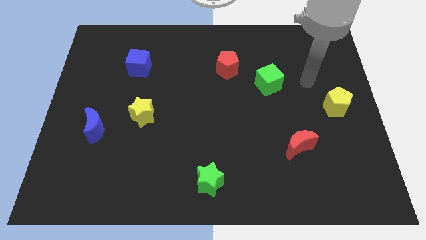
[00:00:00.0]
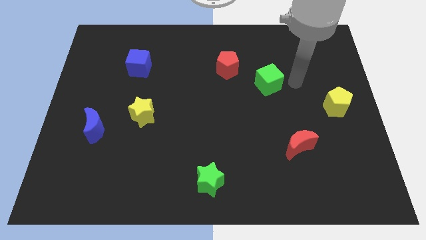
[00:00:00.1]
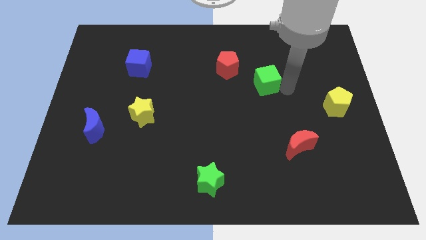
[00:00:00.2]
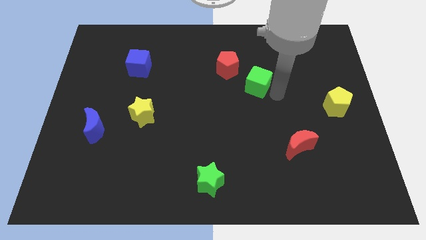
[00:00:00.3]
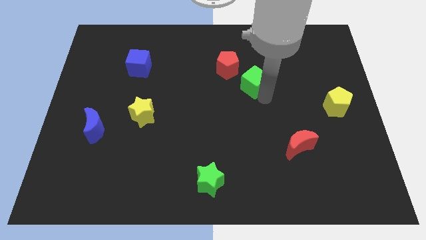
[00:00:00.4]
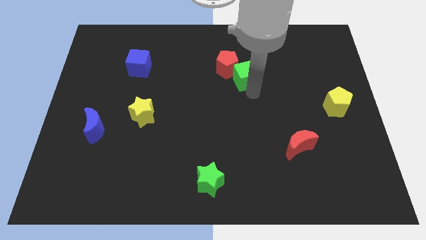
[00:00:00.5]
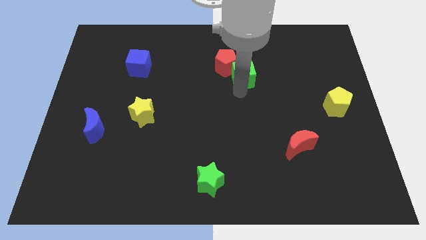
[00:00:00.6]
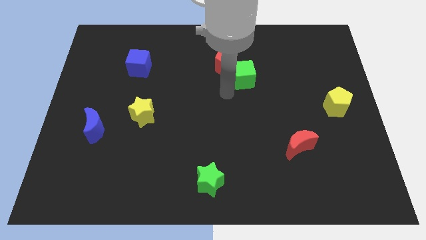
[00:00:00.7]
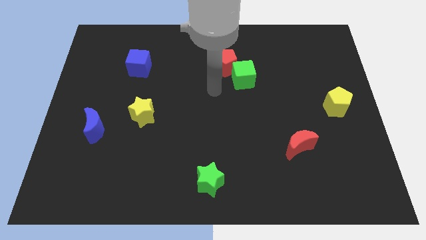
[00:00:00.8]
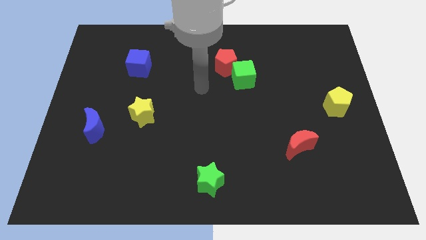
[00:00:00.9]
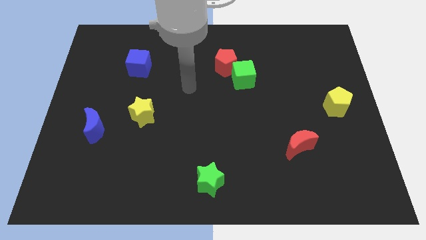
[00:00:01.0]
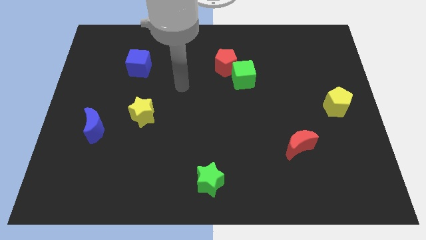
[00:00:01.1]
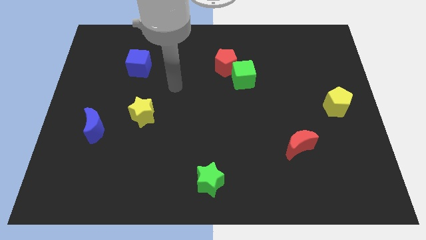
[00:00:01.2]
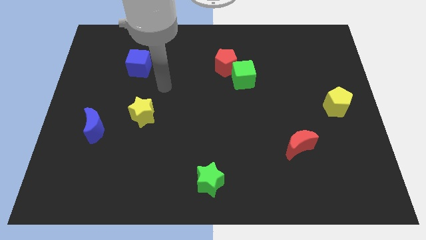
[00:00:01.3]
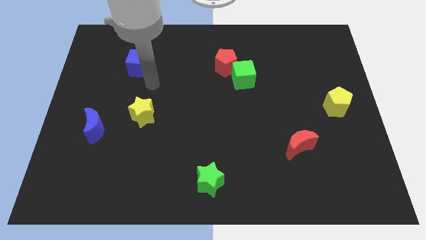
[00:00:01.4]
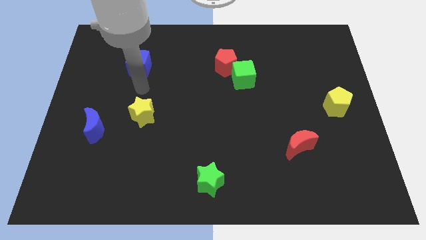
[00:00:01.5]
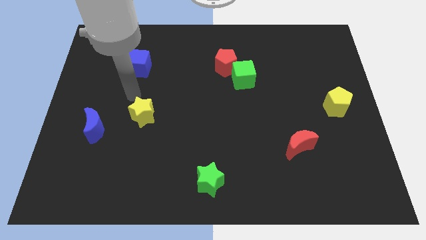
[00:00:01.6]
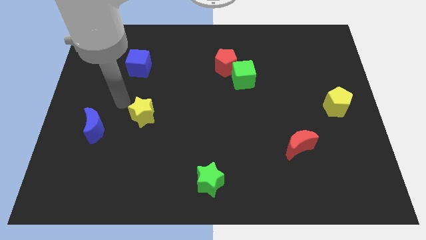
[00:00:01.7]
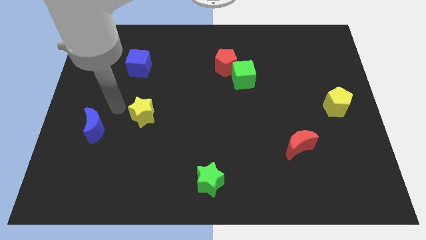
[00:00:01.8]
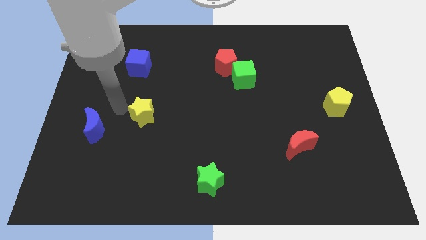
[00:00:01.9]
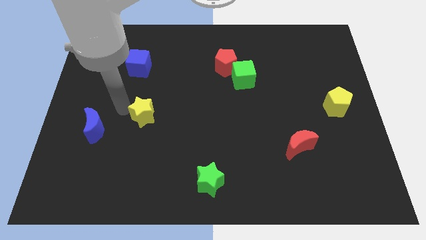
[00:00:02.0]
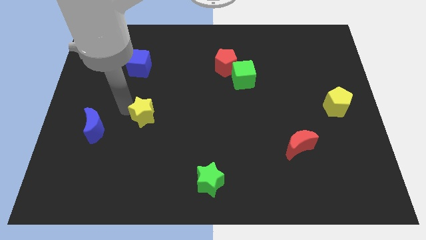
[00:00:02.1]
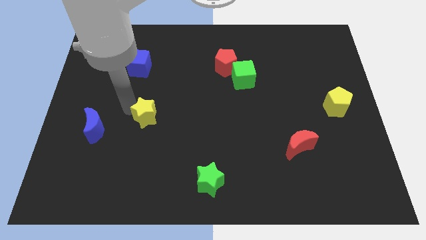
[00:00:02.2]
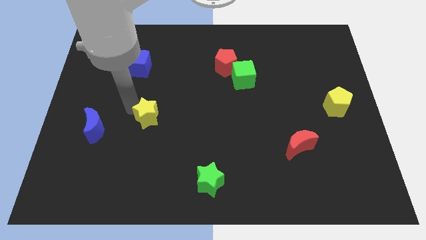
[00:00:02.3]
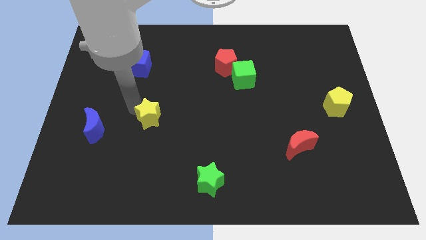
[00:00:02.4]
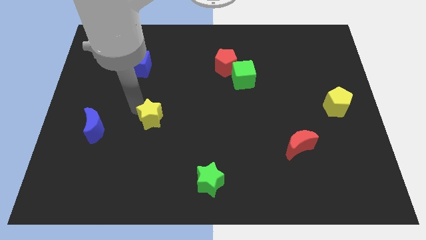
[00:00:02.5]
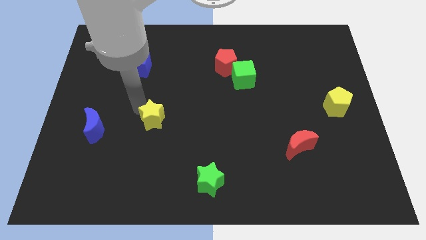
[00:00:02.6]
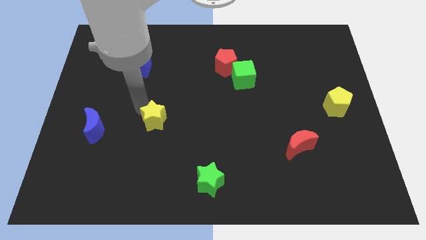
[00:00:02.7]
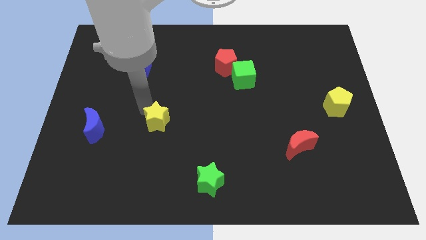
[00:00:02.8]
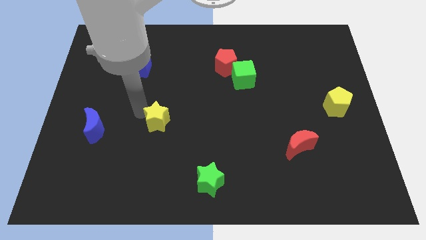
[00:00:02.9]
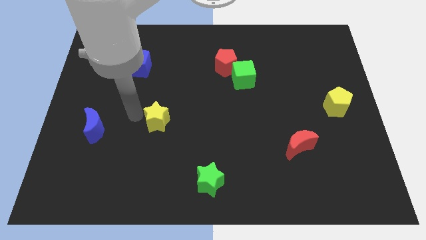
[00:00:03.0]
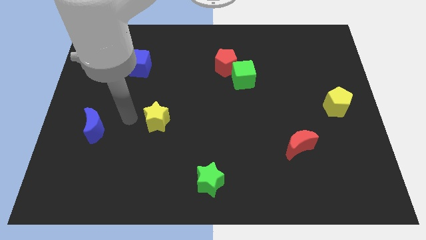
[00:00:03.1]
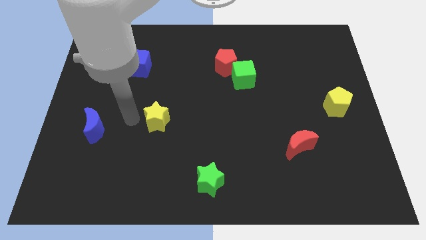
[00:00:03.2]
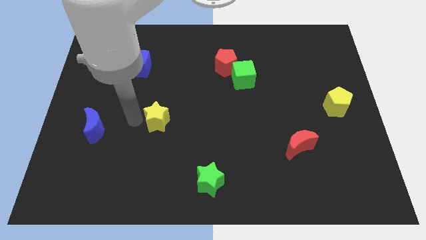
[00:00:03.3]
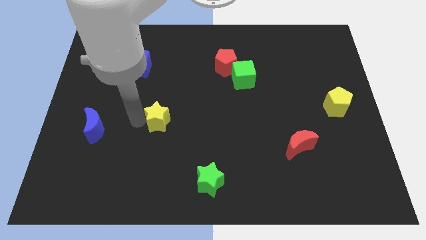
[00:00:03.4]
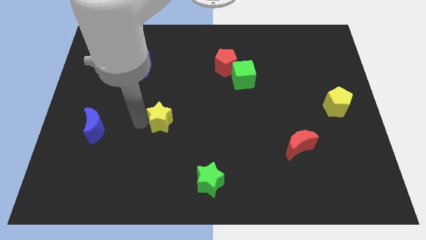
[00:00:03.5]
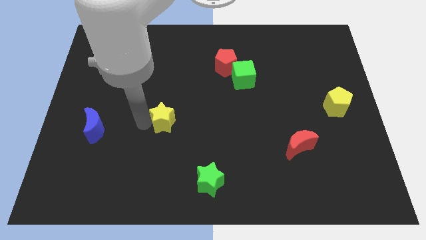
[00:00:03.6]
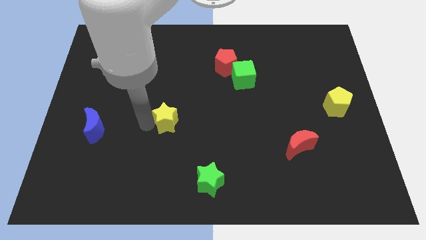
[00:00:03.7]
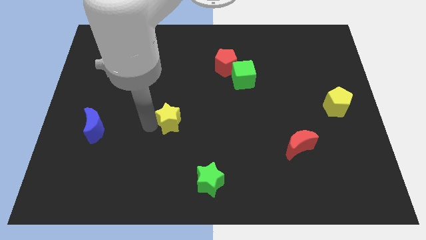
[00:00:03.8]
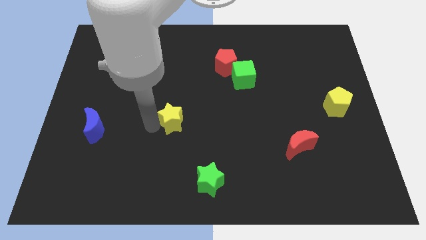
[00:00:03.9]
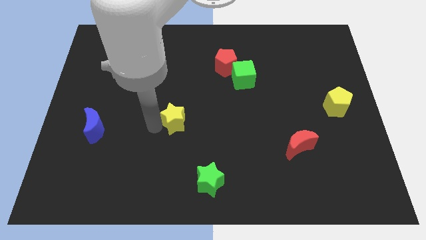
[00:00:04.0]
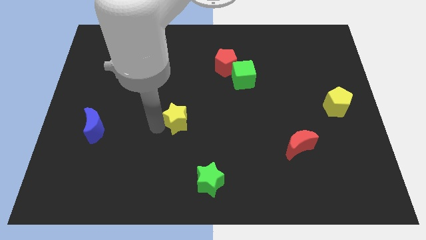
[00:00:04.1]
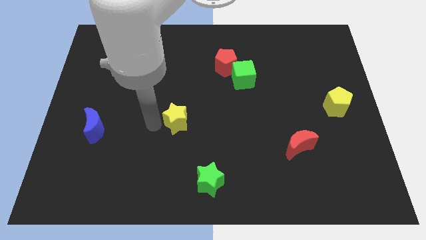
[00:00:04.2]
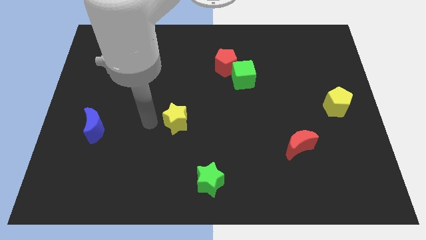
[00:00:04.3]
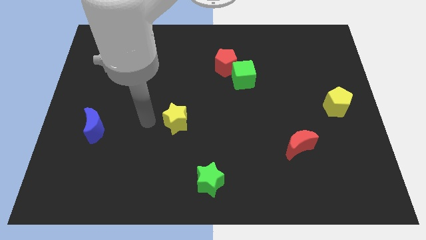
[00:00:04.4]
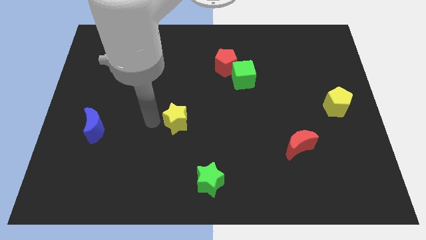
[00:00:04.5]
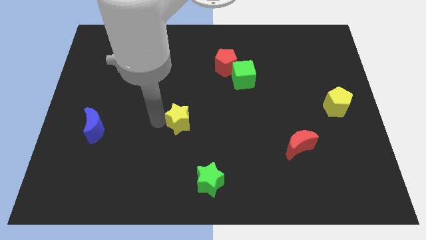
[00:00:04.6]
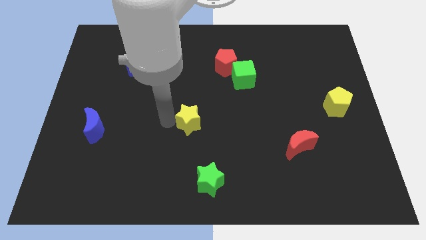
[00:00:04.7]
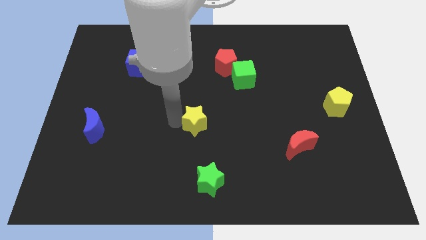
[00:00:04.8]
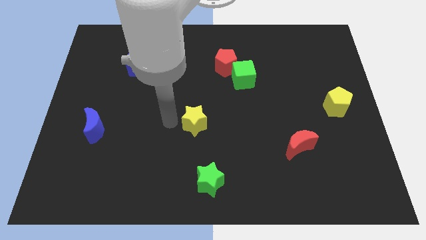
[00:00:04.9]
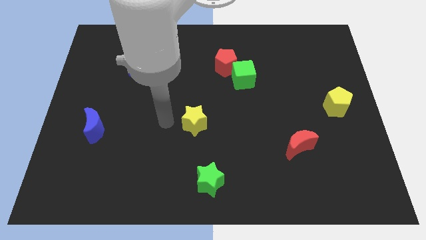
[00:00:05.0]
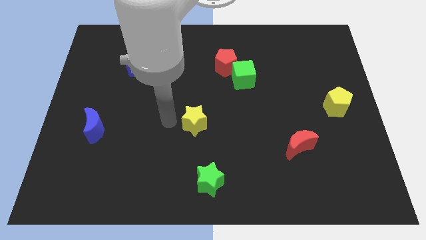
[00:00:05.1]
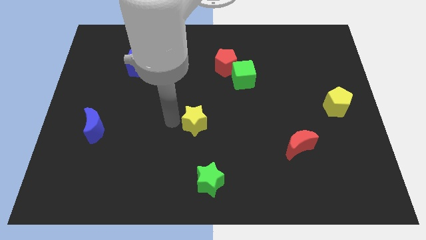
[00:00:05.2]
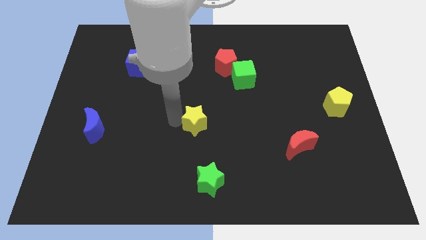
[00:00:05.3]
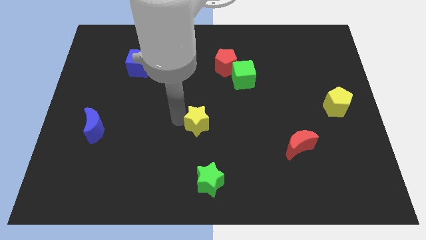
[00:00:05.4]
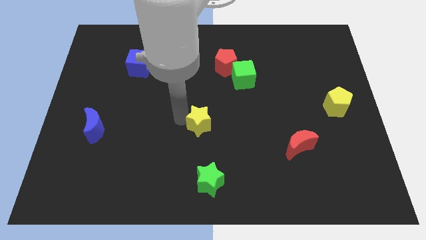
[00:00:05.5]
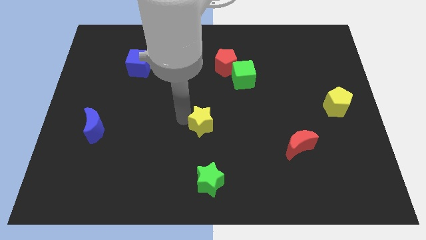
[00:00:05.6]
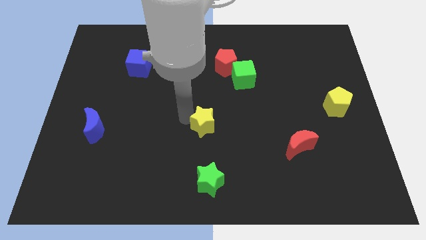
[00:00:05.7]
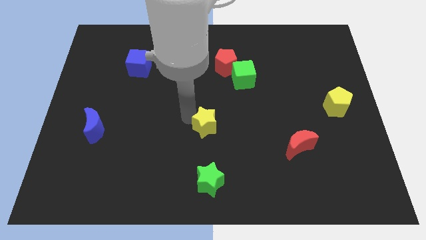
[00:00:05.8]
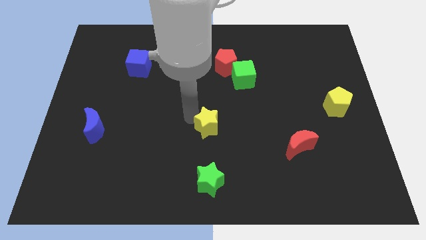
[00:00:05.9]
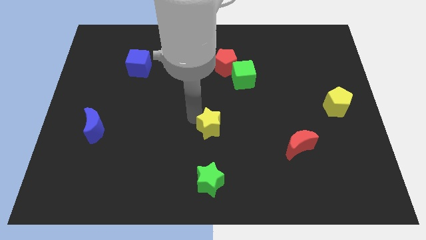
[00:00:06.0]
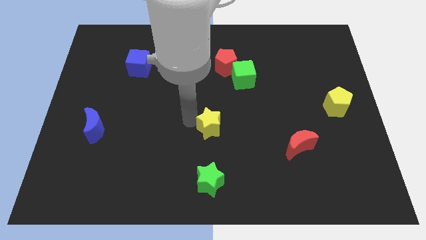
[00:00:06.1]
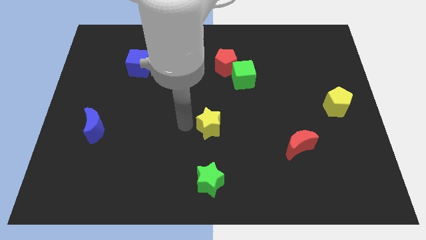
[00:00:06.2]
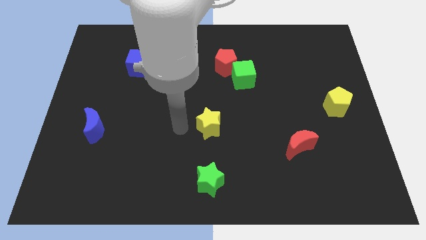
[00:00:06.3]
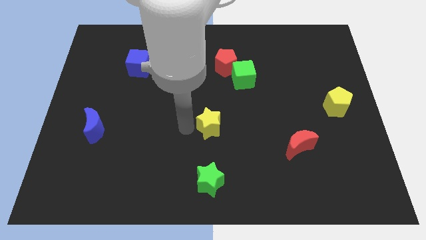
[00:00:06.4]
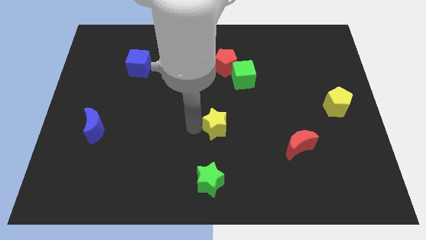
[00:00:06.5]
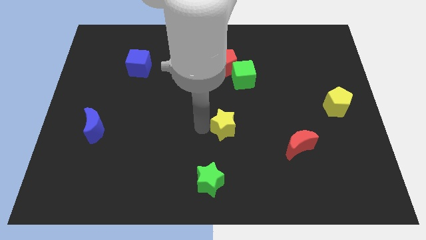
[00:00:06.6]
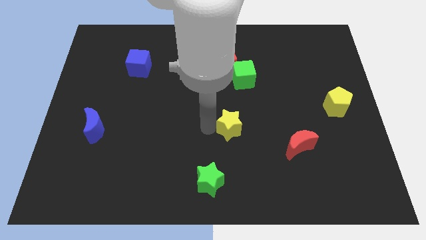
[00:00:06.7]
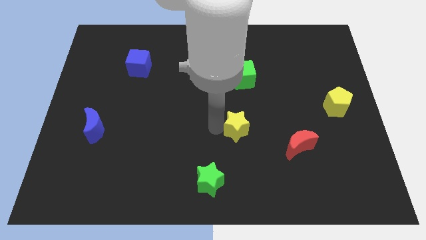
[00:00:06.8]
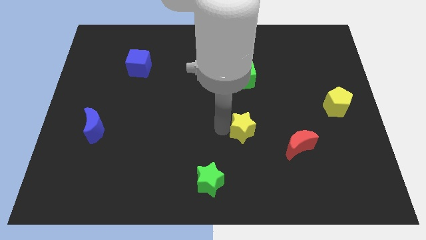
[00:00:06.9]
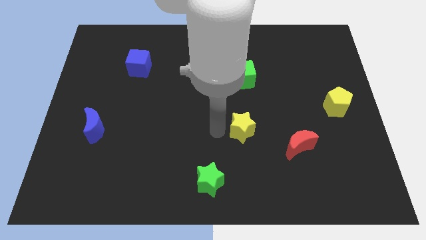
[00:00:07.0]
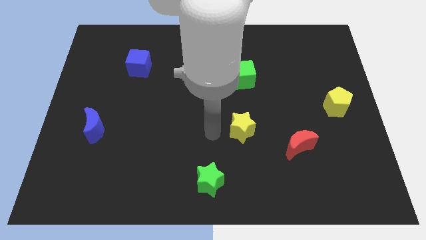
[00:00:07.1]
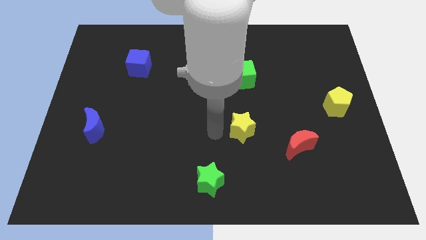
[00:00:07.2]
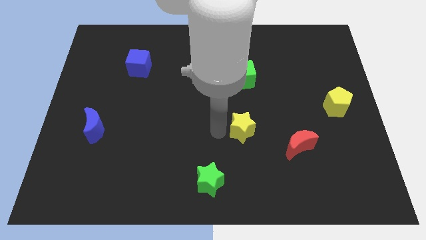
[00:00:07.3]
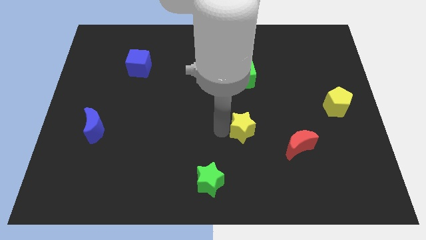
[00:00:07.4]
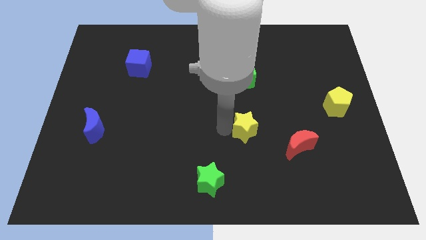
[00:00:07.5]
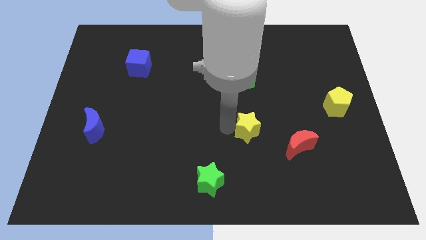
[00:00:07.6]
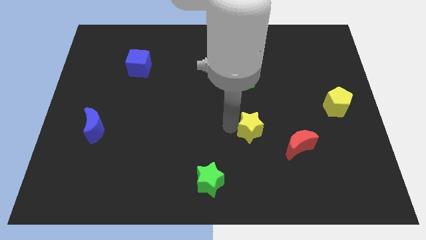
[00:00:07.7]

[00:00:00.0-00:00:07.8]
slide the yellow star to the top left of the red moon
